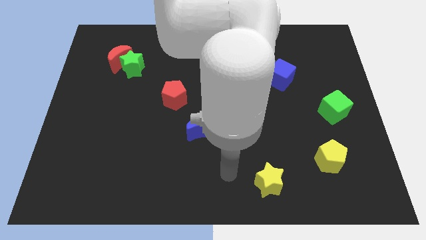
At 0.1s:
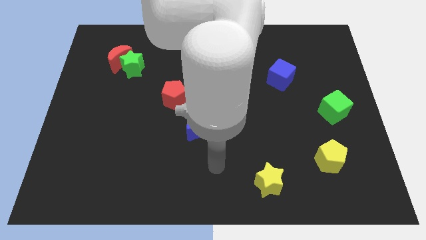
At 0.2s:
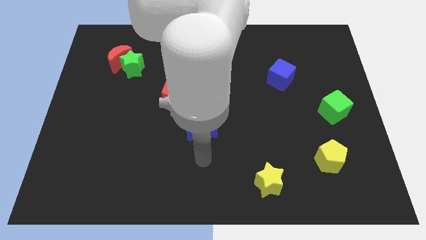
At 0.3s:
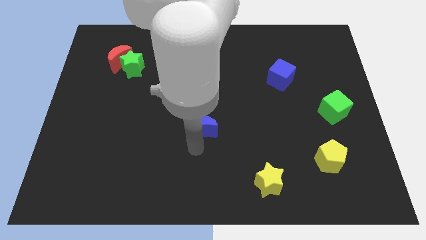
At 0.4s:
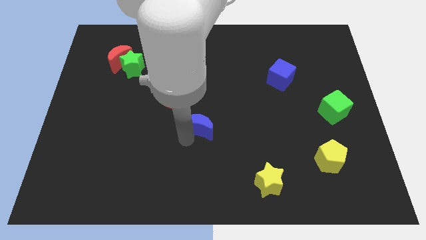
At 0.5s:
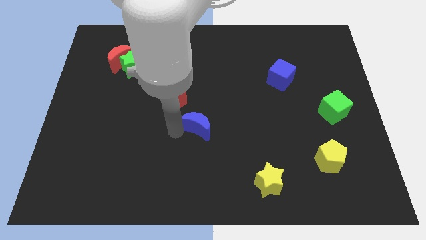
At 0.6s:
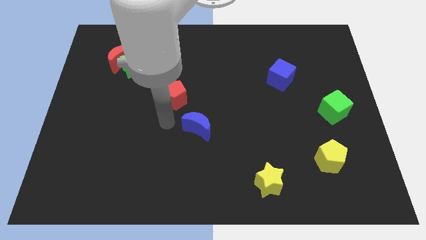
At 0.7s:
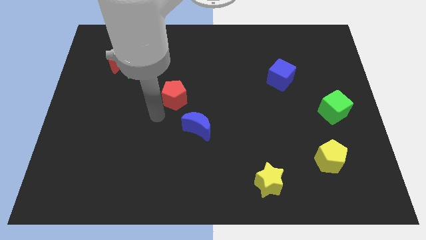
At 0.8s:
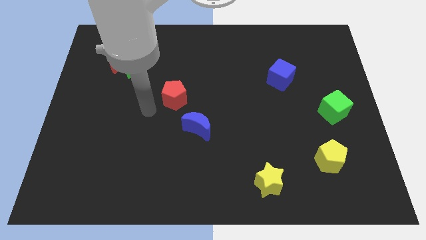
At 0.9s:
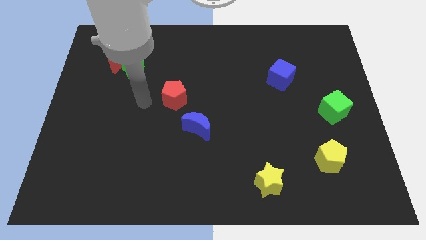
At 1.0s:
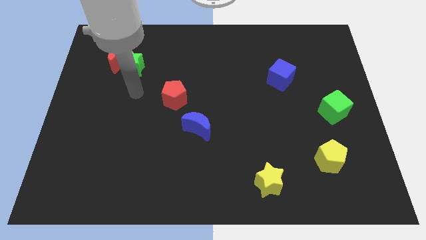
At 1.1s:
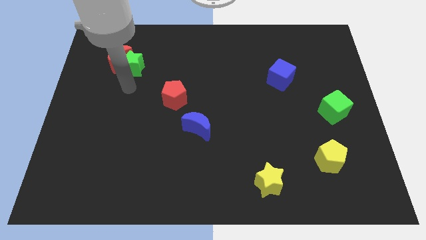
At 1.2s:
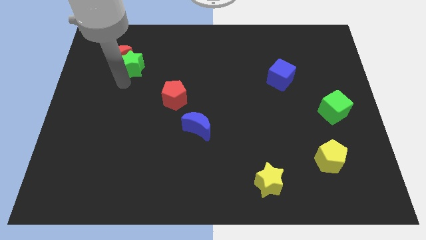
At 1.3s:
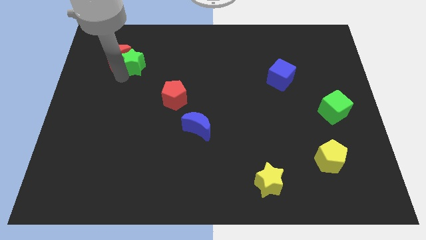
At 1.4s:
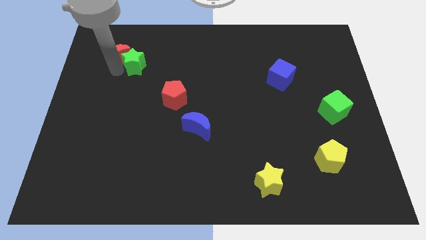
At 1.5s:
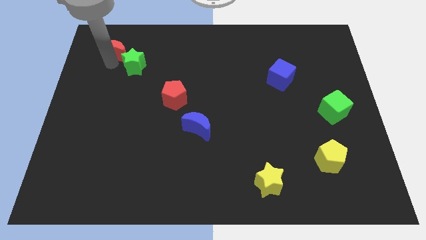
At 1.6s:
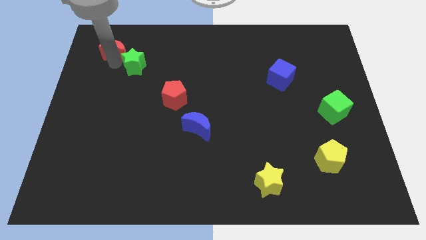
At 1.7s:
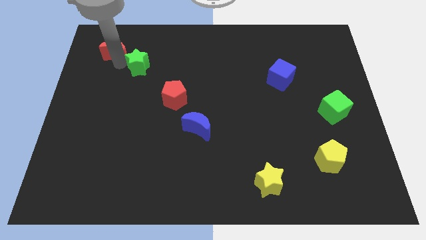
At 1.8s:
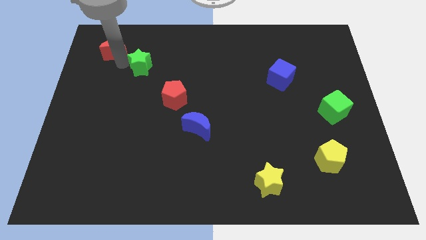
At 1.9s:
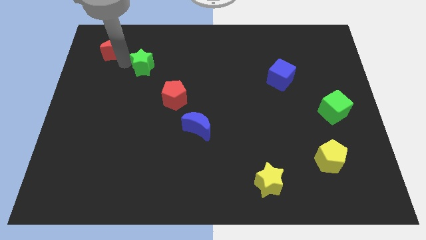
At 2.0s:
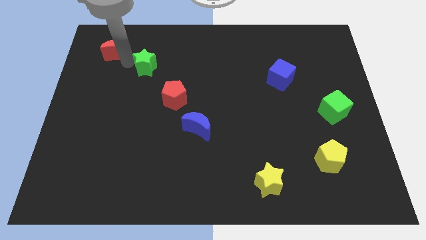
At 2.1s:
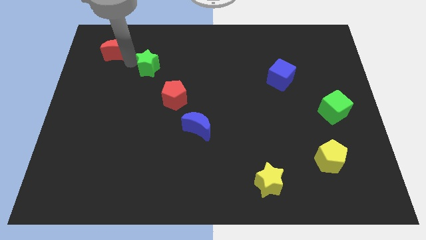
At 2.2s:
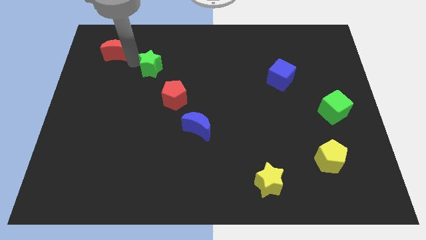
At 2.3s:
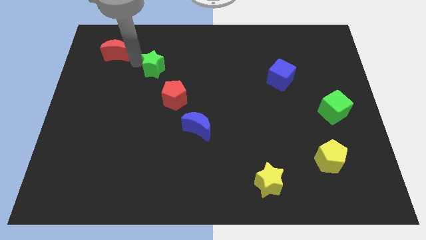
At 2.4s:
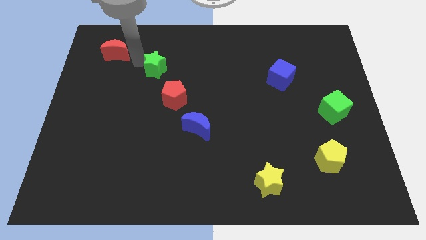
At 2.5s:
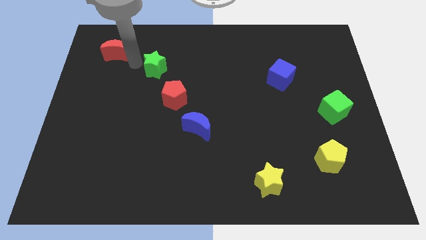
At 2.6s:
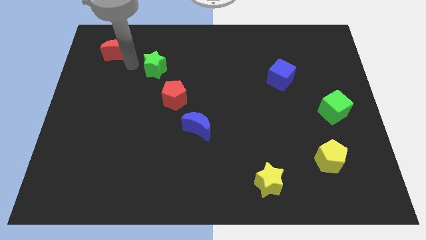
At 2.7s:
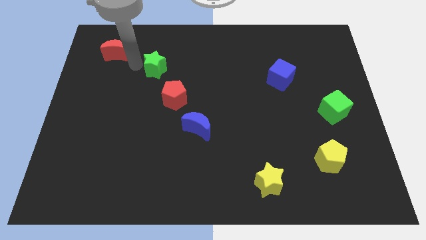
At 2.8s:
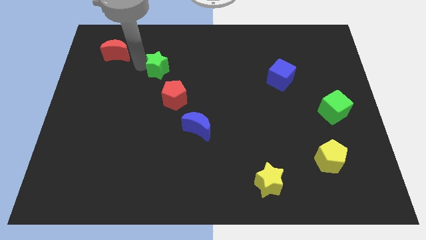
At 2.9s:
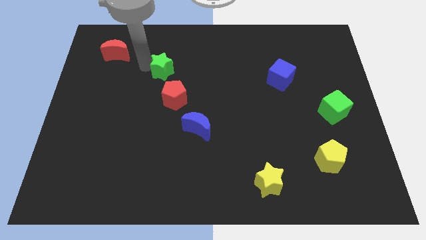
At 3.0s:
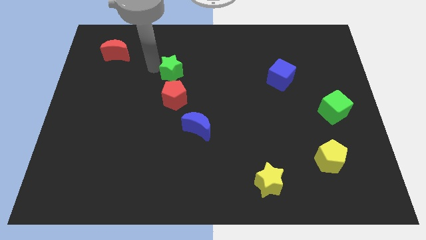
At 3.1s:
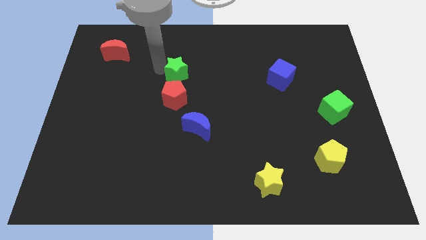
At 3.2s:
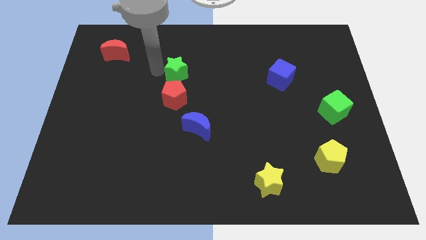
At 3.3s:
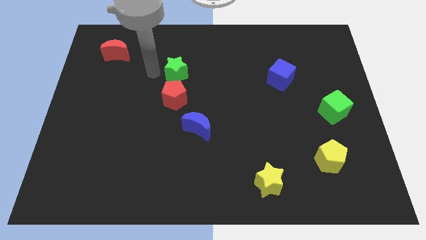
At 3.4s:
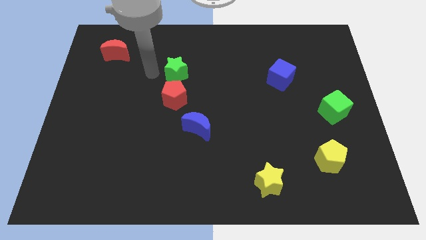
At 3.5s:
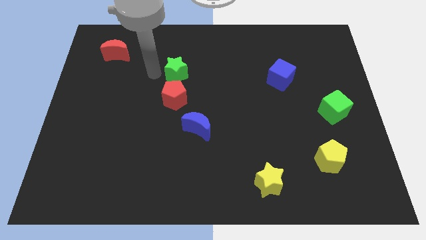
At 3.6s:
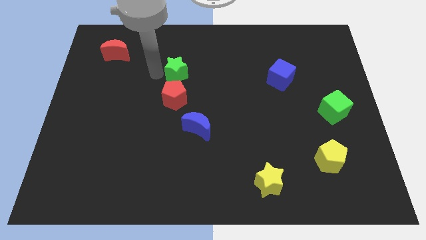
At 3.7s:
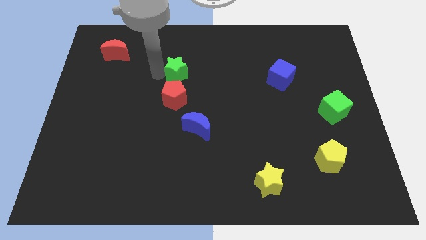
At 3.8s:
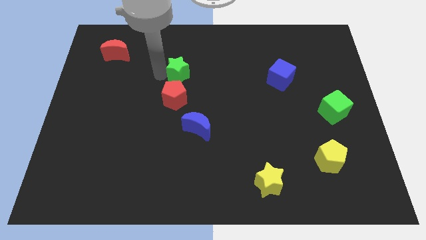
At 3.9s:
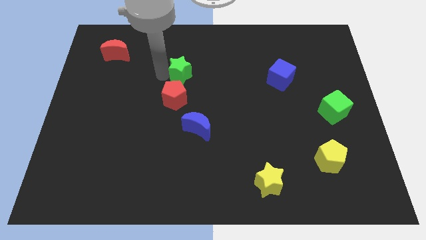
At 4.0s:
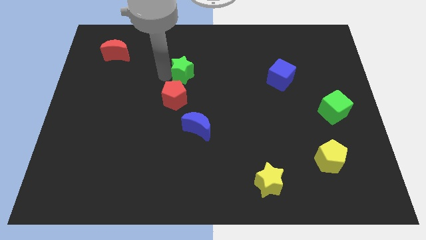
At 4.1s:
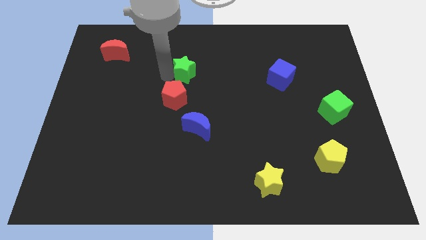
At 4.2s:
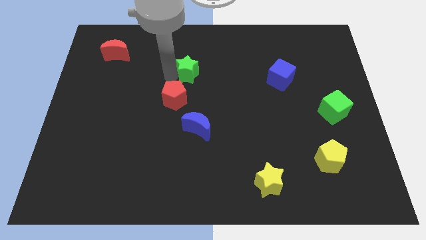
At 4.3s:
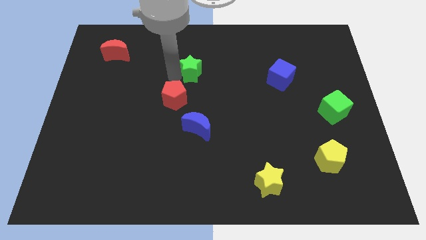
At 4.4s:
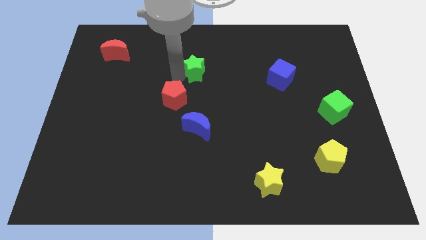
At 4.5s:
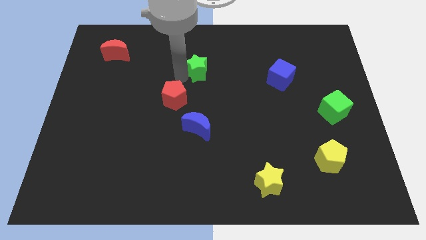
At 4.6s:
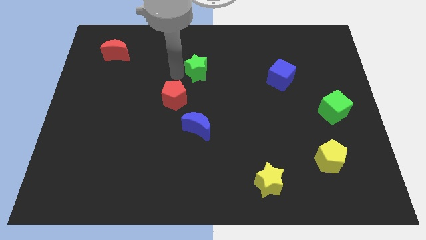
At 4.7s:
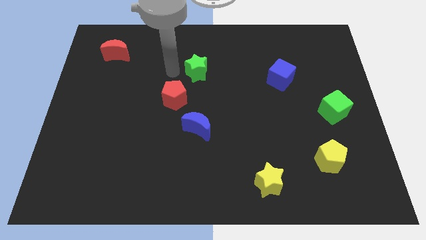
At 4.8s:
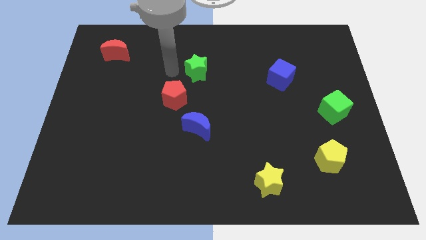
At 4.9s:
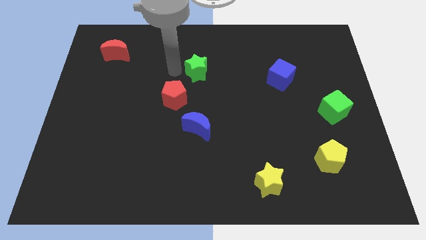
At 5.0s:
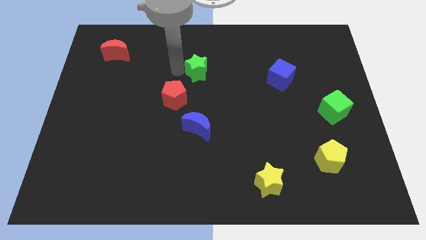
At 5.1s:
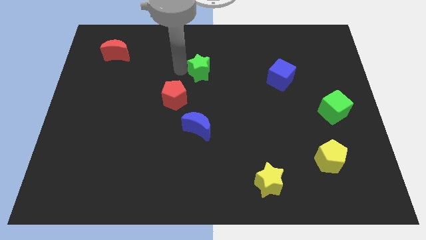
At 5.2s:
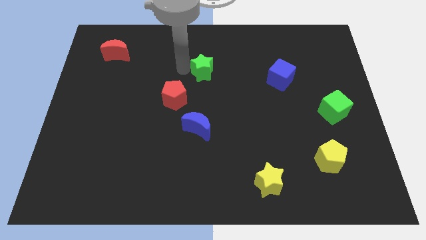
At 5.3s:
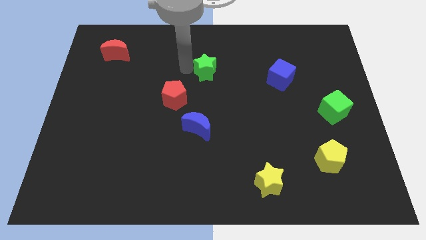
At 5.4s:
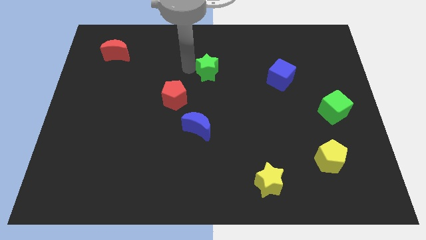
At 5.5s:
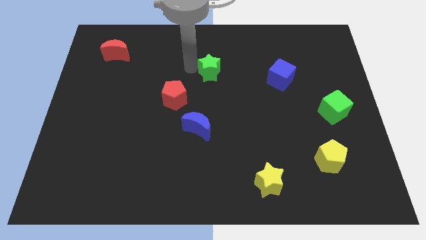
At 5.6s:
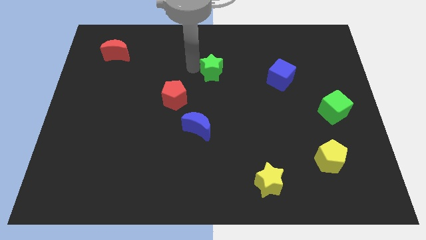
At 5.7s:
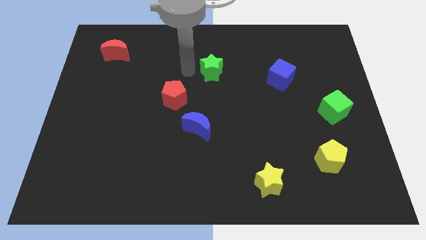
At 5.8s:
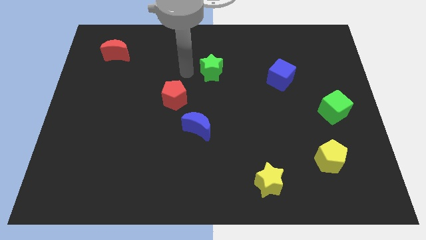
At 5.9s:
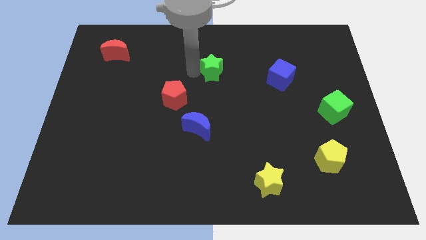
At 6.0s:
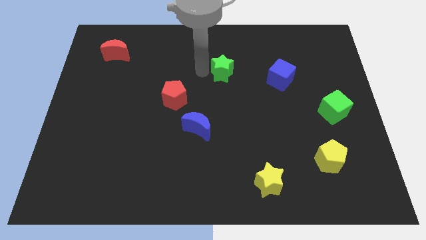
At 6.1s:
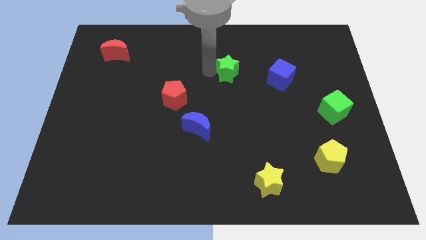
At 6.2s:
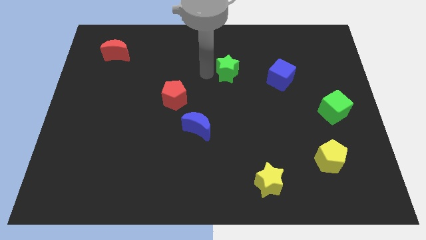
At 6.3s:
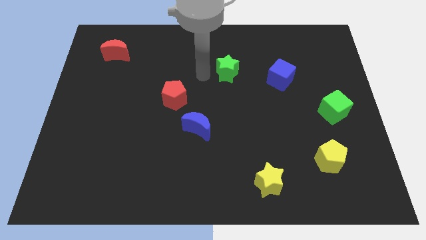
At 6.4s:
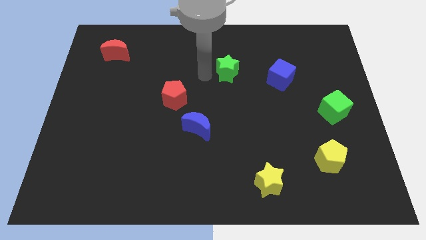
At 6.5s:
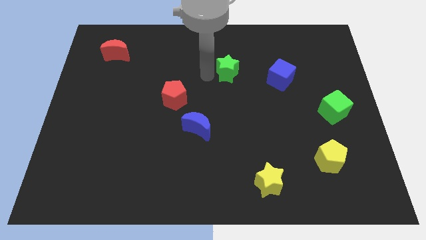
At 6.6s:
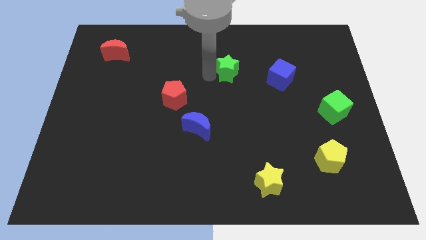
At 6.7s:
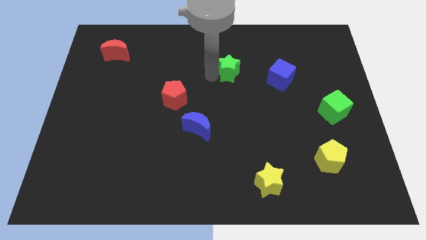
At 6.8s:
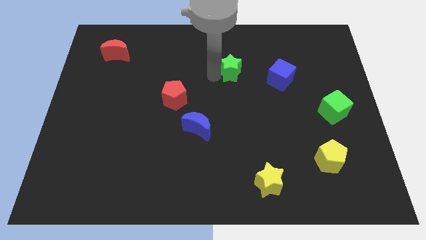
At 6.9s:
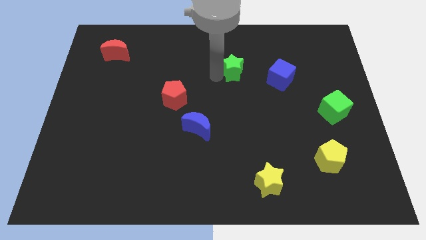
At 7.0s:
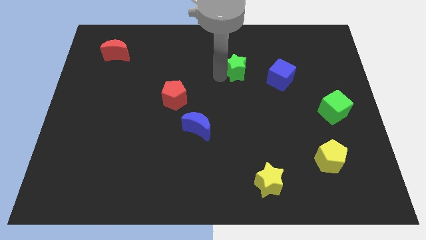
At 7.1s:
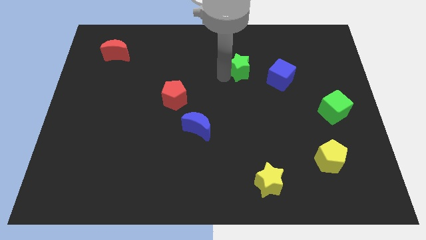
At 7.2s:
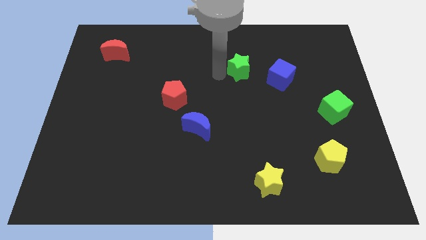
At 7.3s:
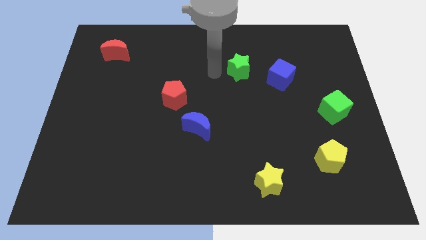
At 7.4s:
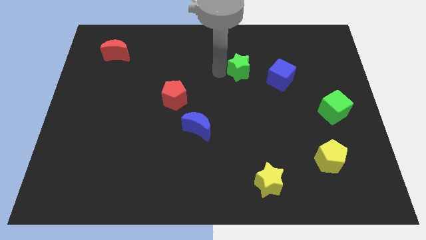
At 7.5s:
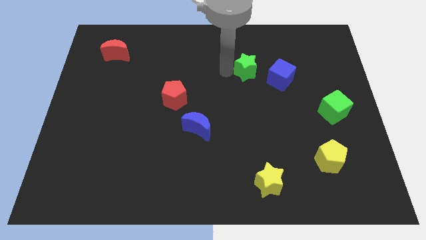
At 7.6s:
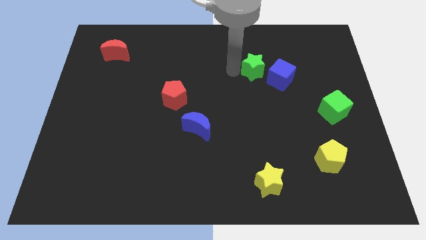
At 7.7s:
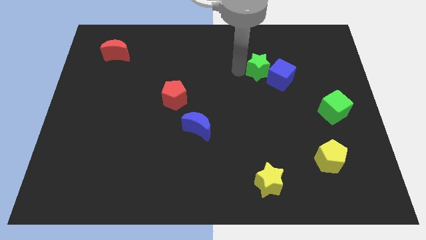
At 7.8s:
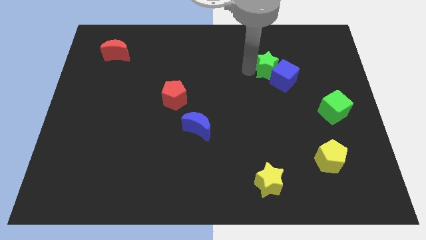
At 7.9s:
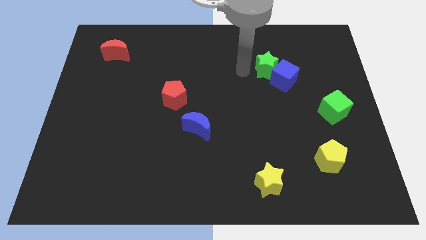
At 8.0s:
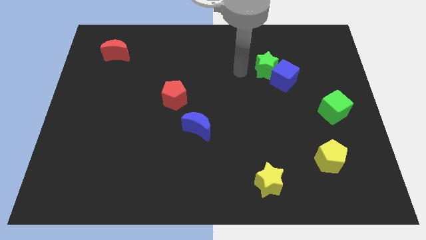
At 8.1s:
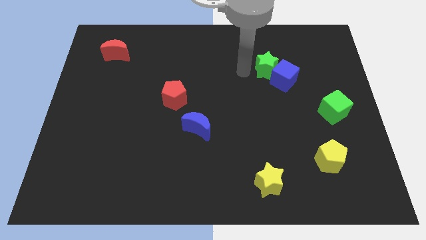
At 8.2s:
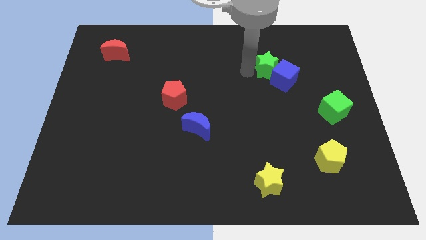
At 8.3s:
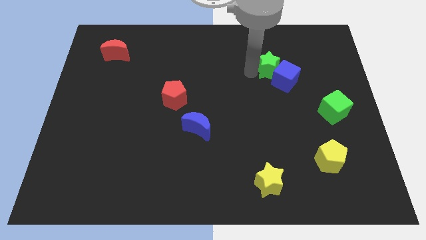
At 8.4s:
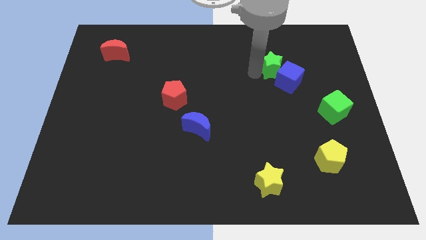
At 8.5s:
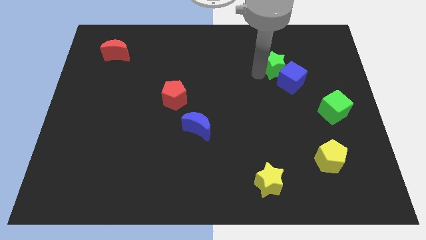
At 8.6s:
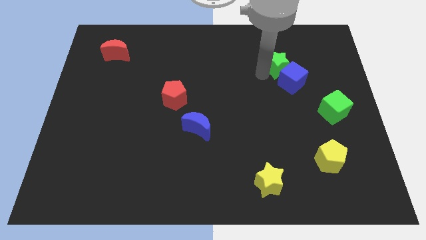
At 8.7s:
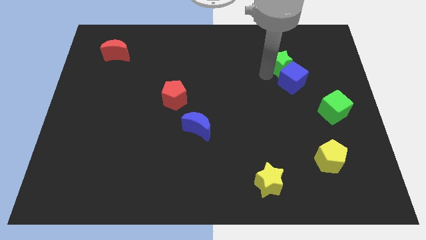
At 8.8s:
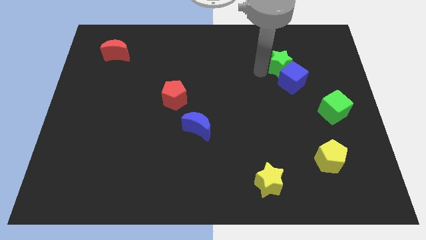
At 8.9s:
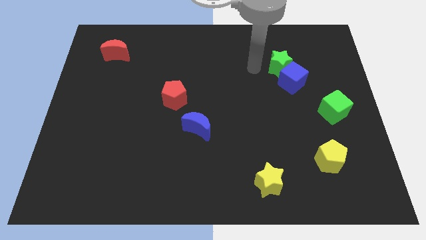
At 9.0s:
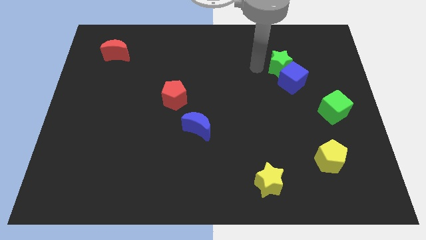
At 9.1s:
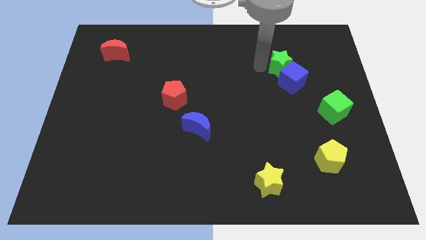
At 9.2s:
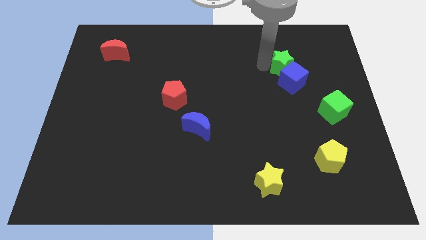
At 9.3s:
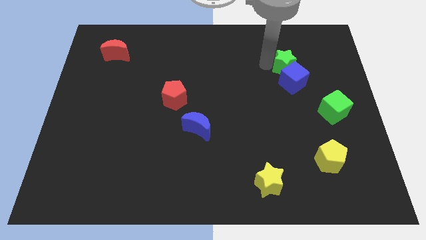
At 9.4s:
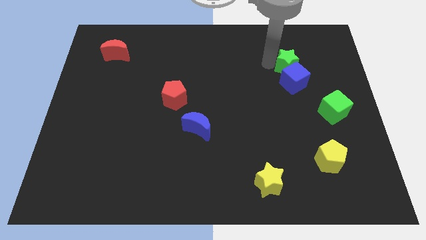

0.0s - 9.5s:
slide the green star to the top right of the blue cube
